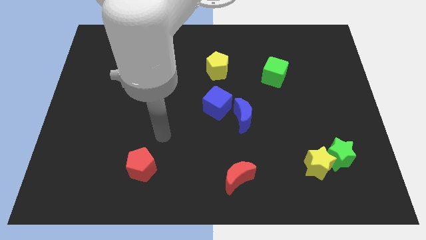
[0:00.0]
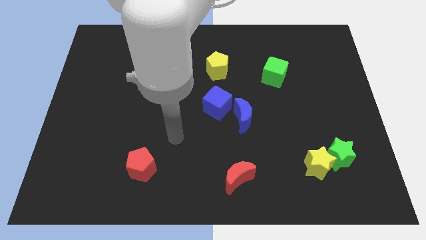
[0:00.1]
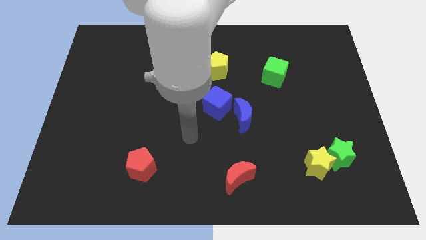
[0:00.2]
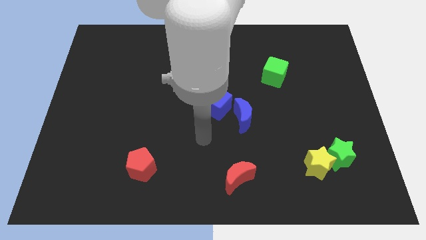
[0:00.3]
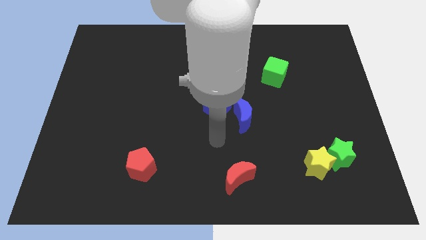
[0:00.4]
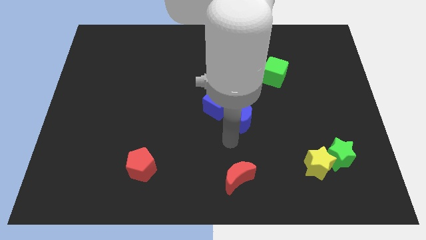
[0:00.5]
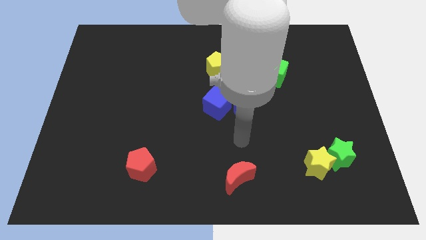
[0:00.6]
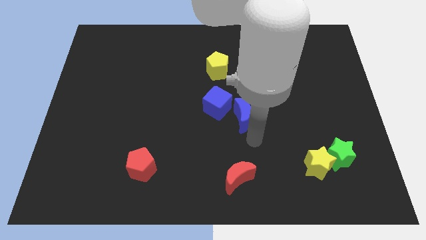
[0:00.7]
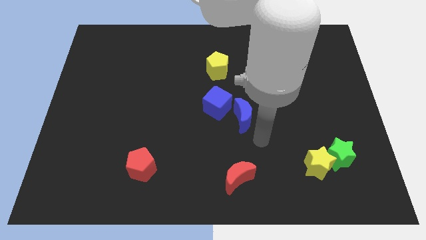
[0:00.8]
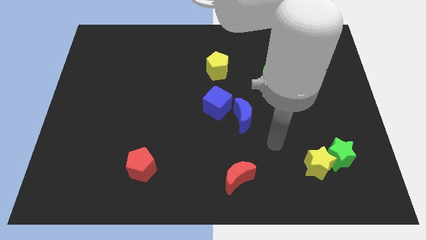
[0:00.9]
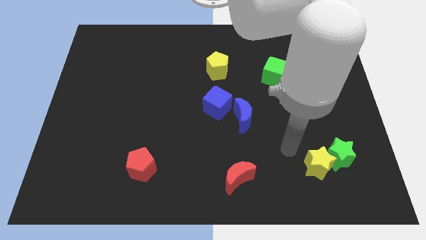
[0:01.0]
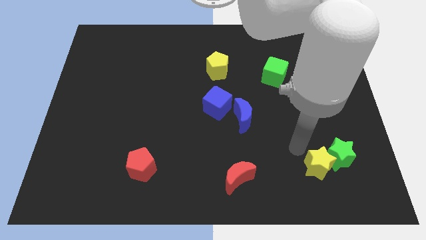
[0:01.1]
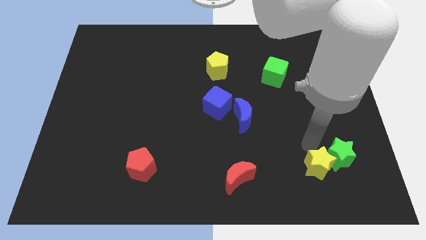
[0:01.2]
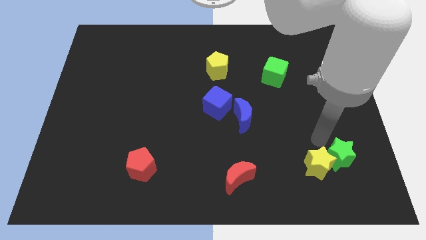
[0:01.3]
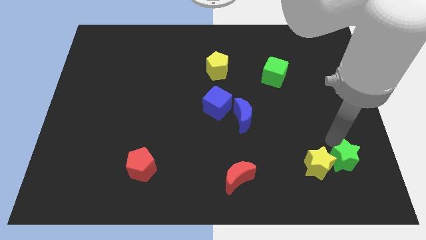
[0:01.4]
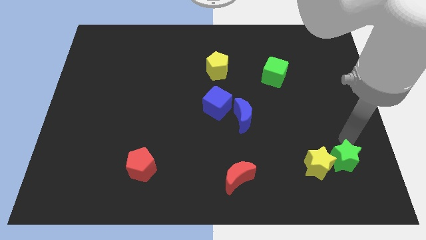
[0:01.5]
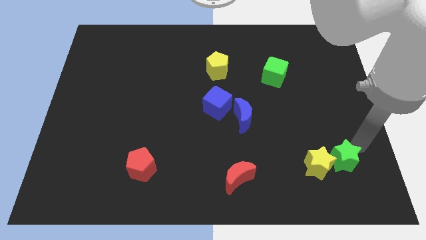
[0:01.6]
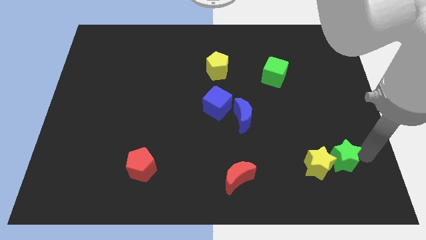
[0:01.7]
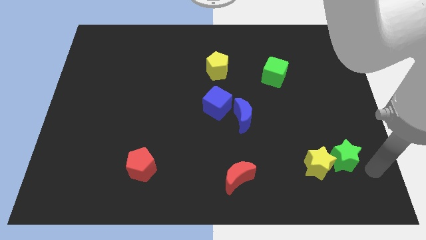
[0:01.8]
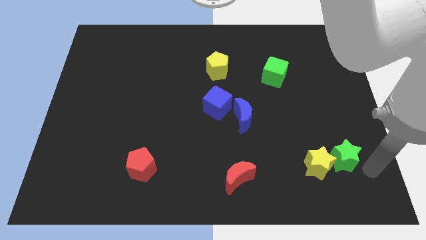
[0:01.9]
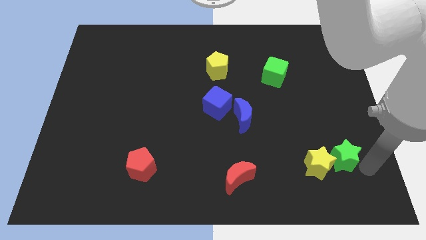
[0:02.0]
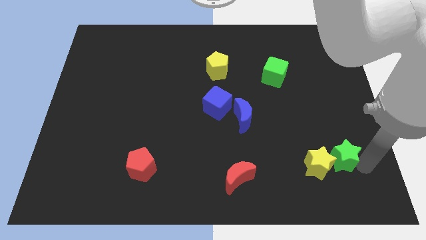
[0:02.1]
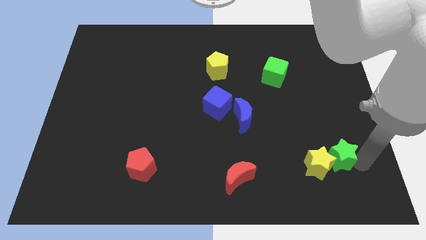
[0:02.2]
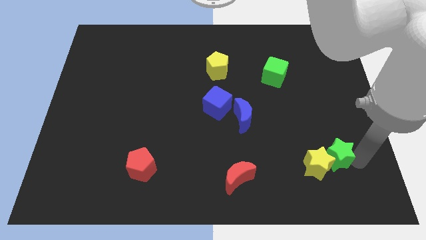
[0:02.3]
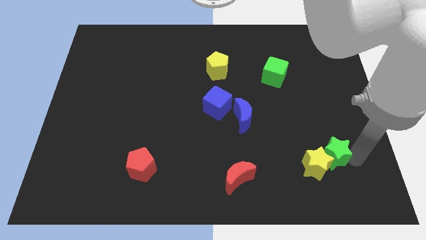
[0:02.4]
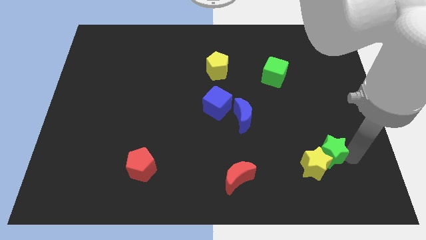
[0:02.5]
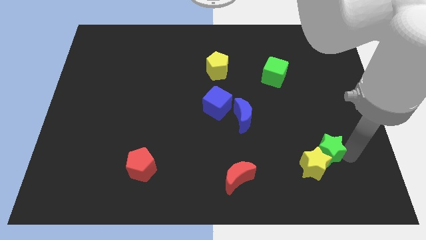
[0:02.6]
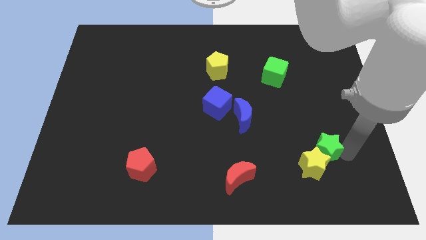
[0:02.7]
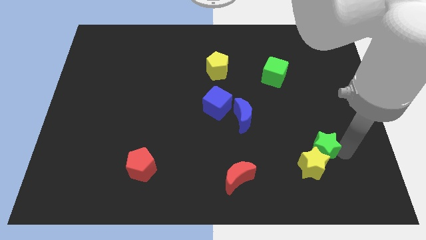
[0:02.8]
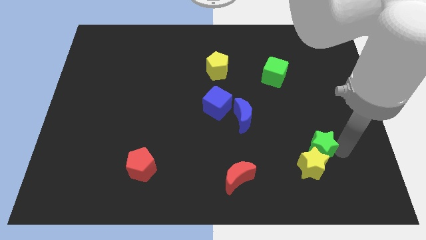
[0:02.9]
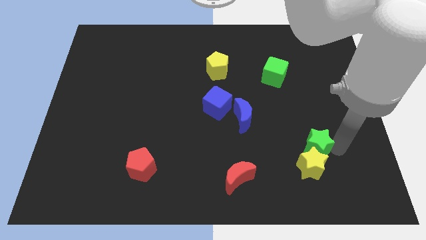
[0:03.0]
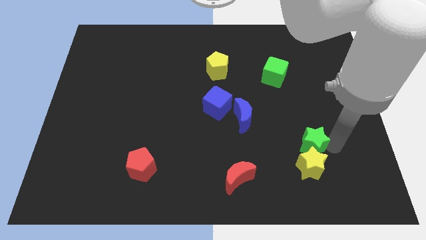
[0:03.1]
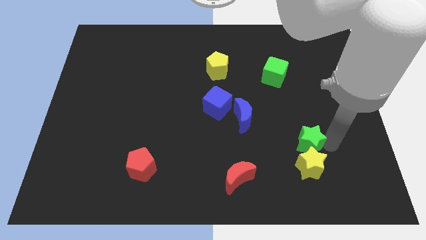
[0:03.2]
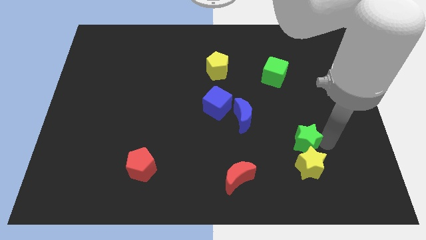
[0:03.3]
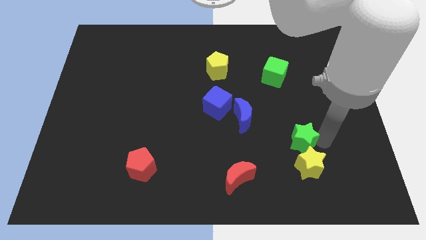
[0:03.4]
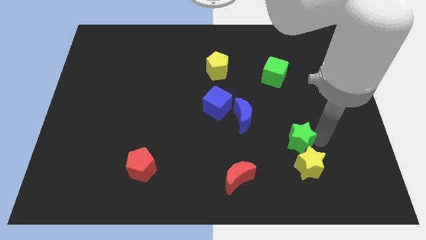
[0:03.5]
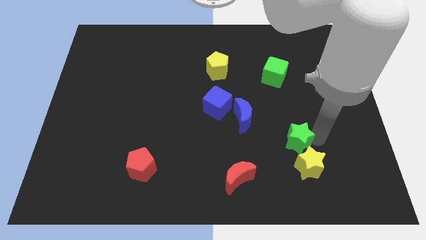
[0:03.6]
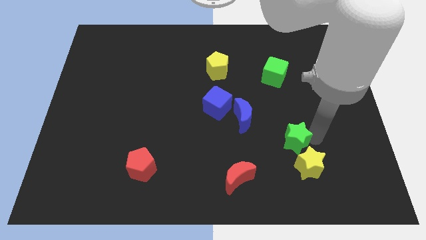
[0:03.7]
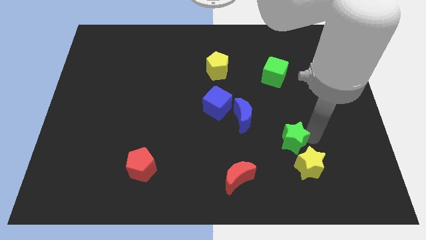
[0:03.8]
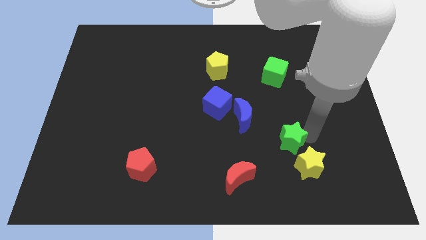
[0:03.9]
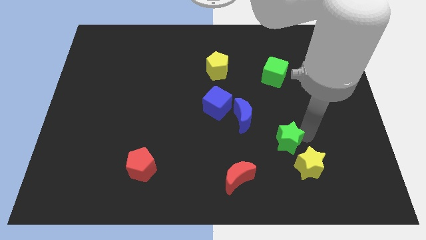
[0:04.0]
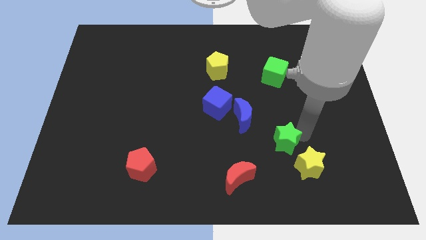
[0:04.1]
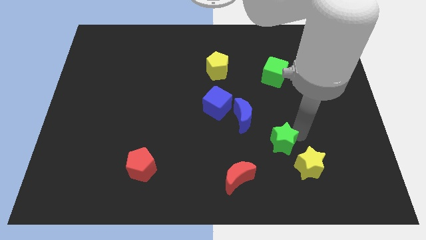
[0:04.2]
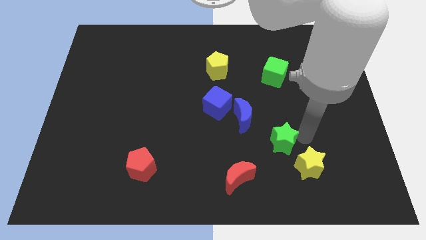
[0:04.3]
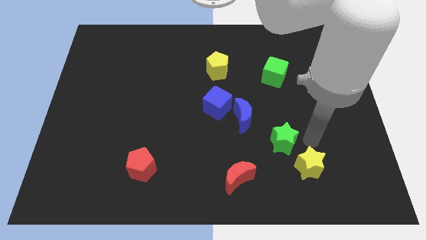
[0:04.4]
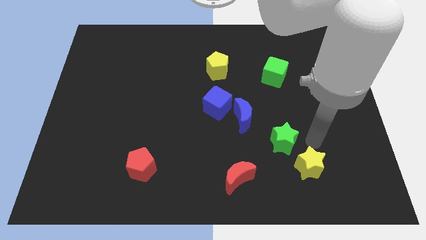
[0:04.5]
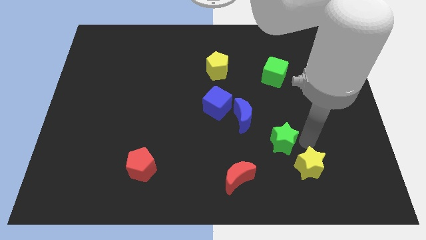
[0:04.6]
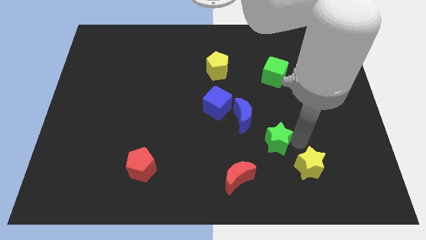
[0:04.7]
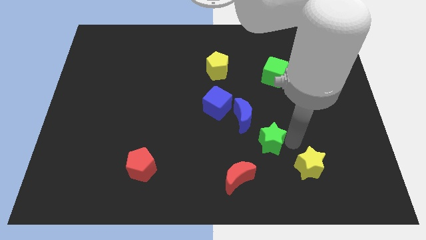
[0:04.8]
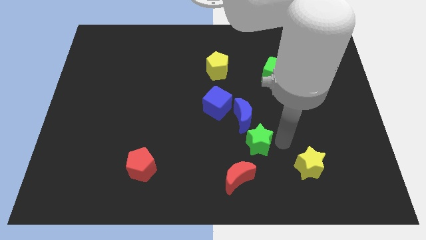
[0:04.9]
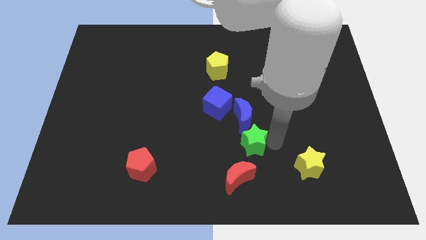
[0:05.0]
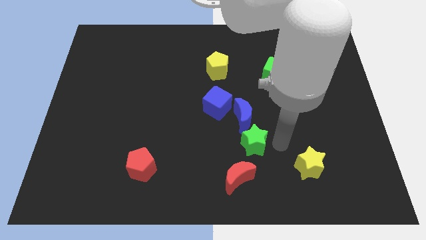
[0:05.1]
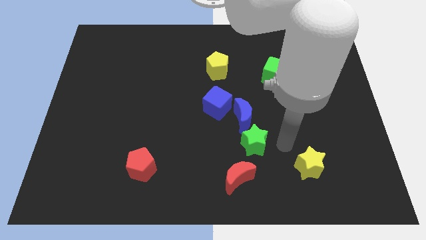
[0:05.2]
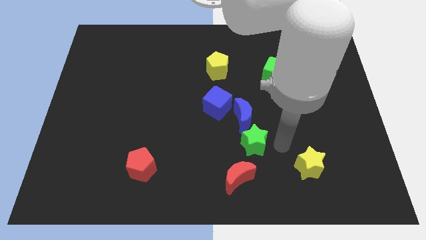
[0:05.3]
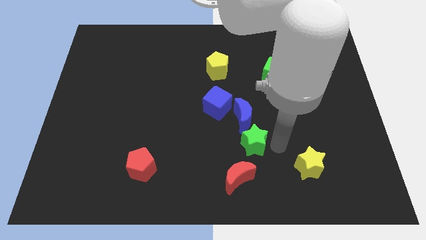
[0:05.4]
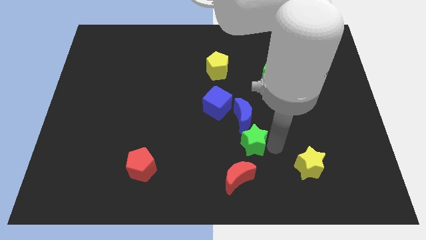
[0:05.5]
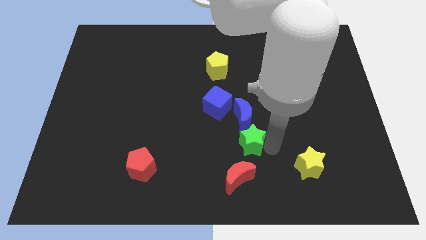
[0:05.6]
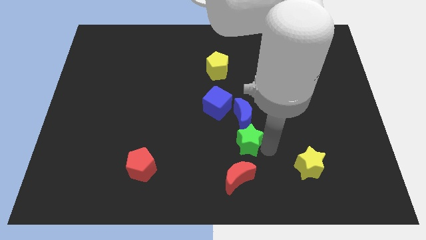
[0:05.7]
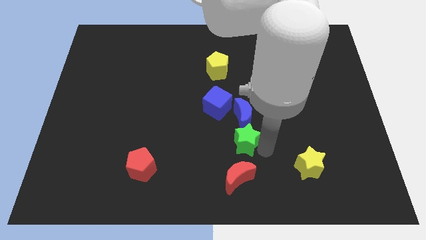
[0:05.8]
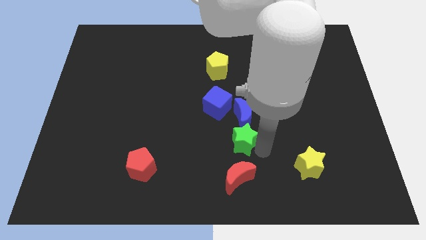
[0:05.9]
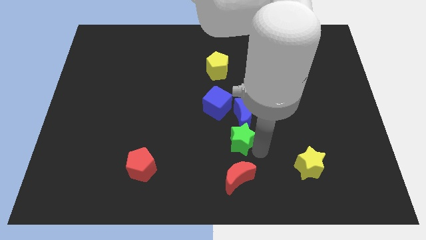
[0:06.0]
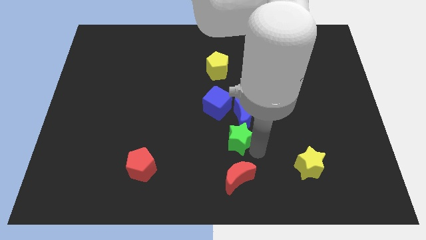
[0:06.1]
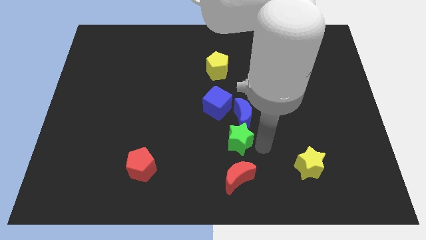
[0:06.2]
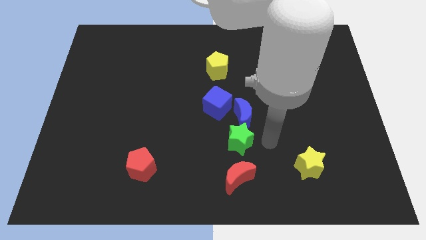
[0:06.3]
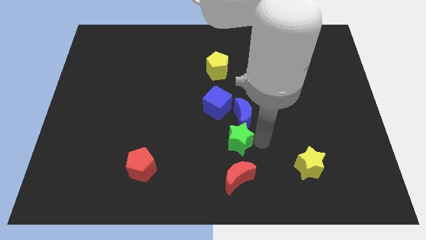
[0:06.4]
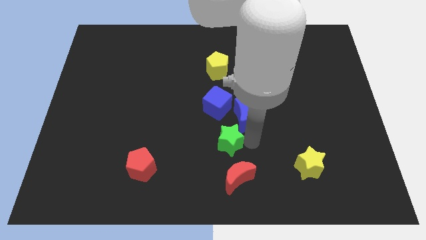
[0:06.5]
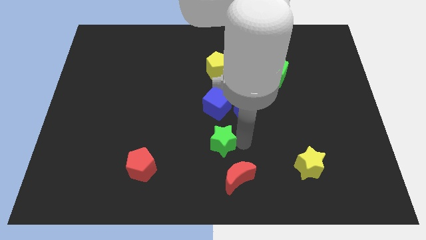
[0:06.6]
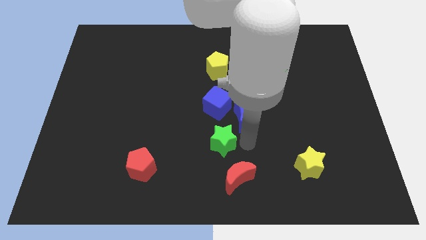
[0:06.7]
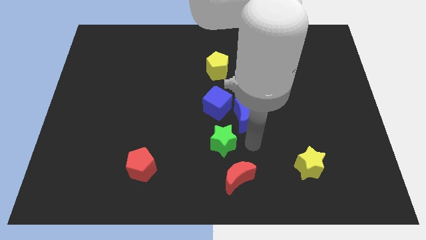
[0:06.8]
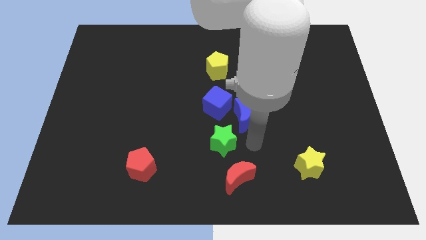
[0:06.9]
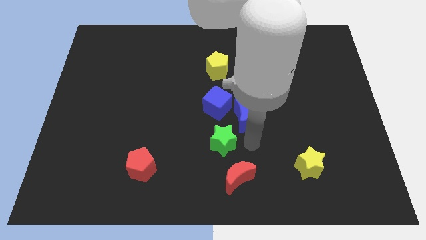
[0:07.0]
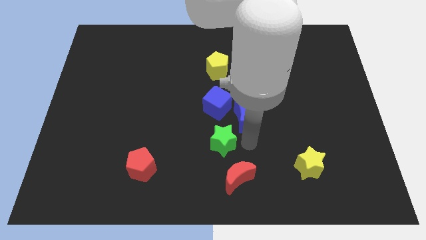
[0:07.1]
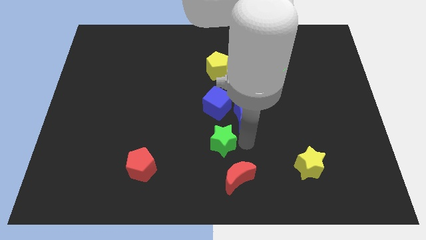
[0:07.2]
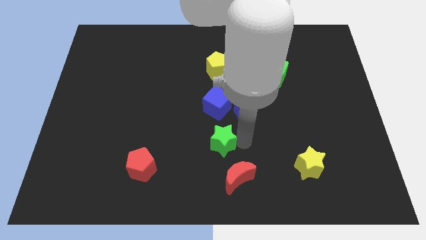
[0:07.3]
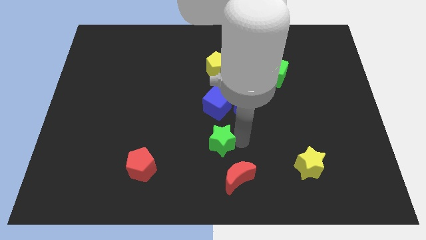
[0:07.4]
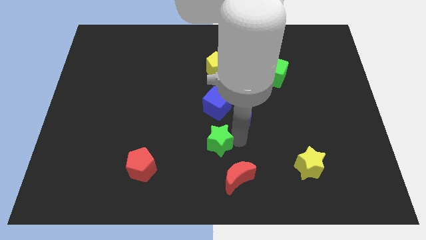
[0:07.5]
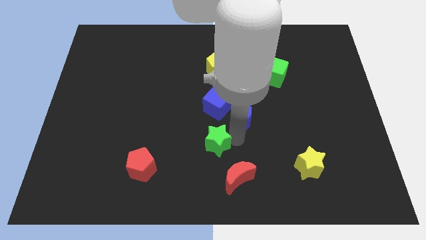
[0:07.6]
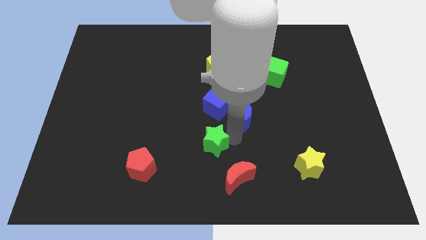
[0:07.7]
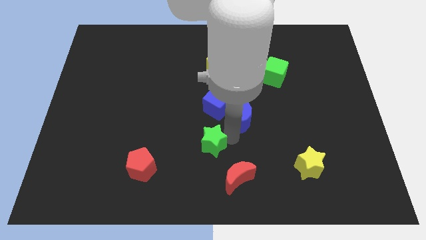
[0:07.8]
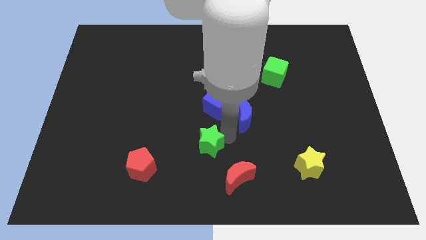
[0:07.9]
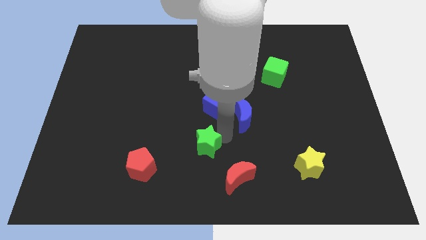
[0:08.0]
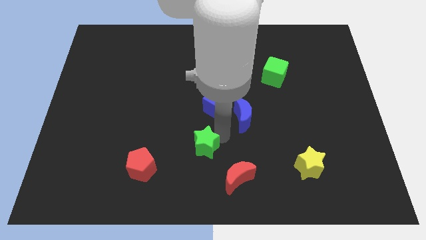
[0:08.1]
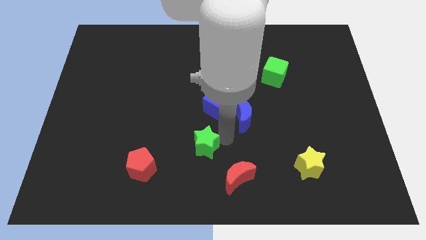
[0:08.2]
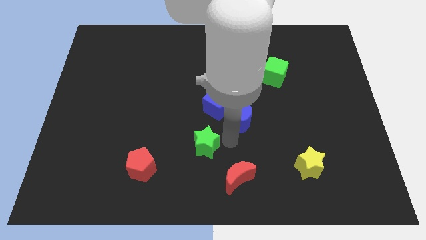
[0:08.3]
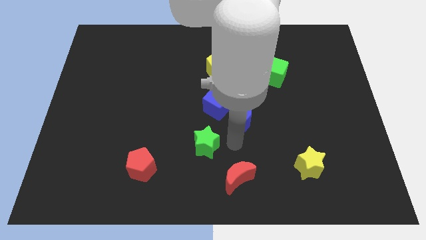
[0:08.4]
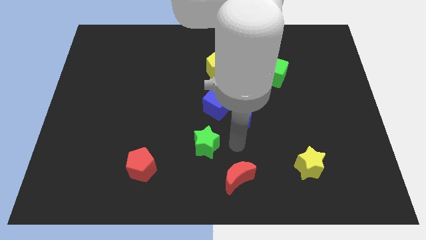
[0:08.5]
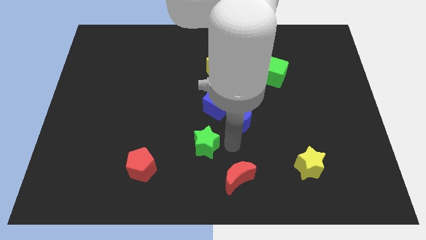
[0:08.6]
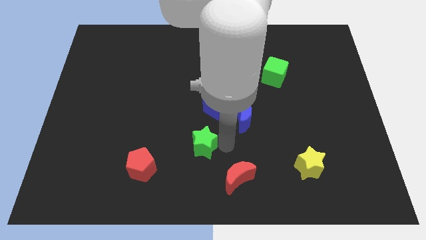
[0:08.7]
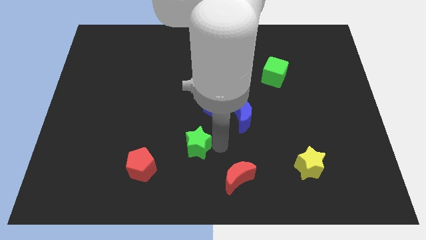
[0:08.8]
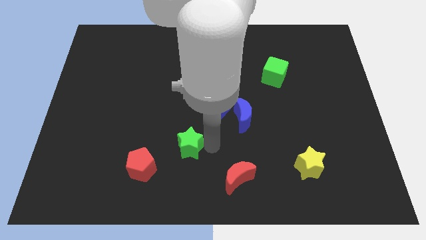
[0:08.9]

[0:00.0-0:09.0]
put the green star diagonally up and to the right of the red pentagon
